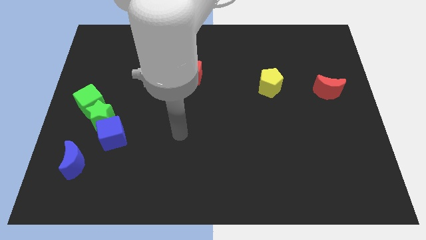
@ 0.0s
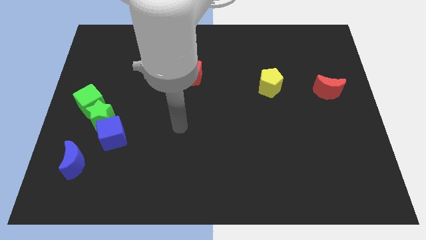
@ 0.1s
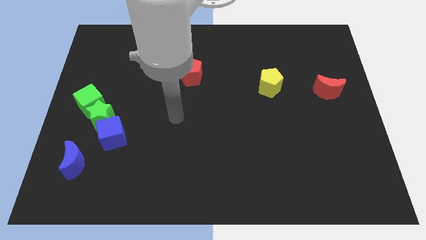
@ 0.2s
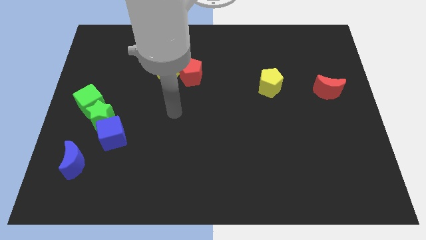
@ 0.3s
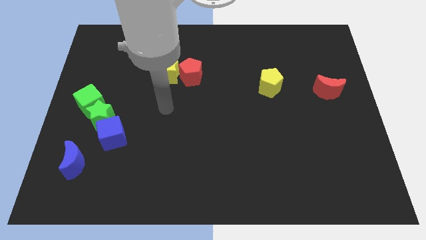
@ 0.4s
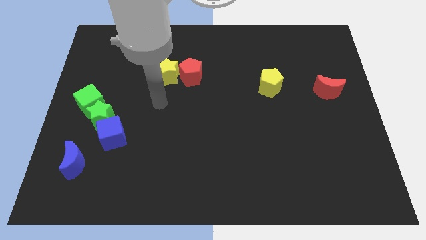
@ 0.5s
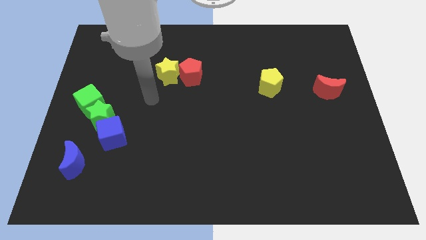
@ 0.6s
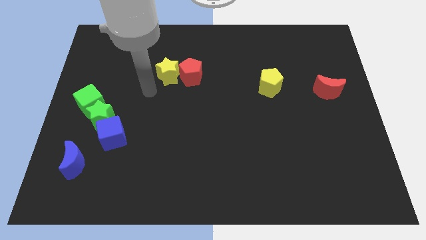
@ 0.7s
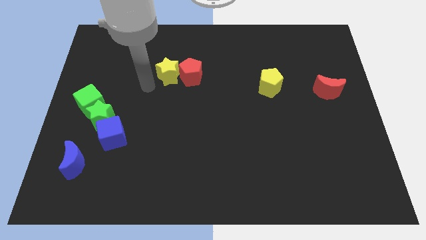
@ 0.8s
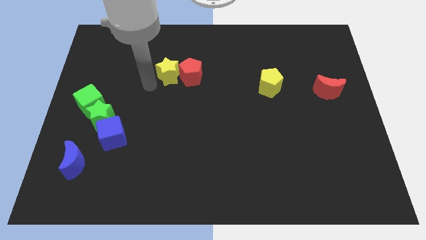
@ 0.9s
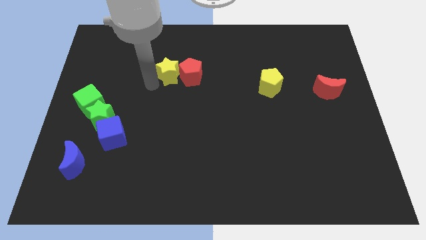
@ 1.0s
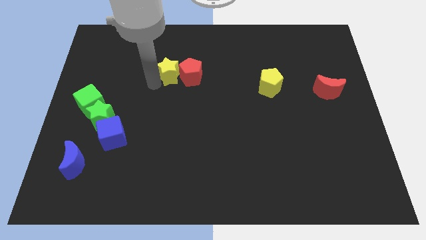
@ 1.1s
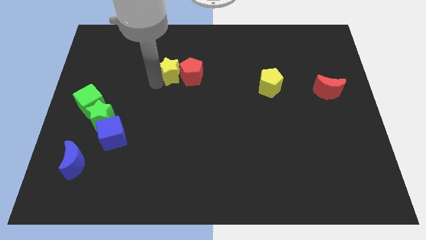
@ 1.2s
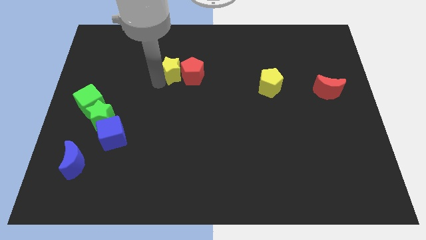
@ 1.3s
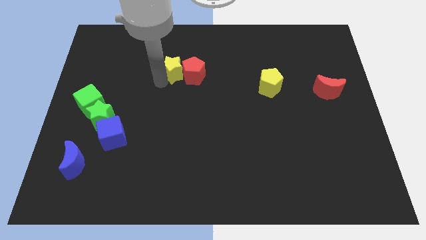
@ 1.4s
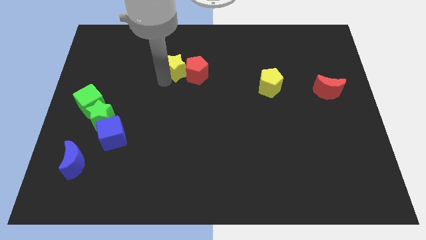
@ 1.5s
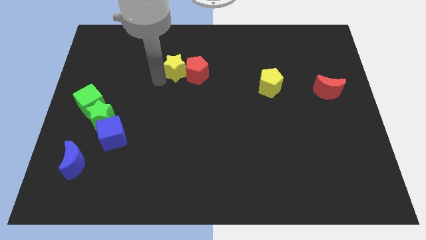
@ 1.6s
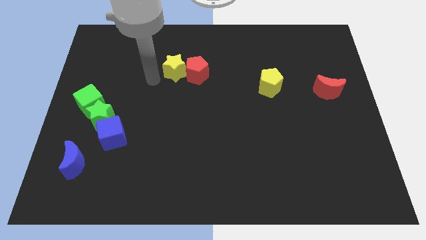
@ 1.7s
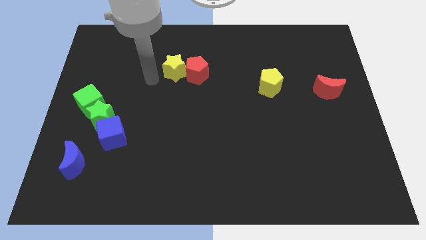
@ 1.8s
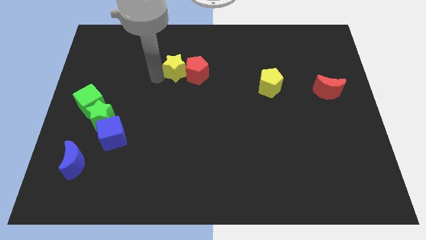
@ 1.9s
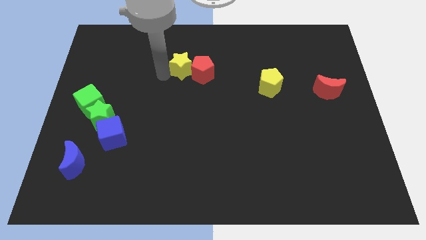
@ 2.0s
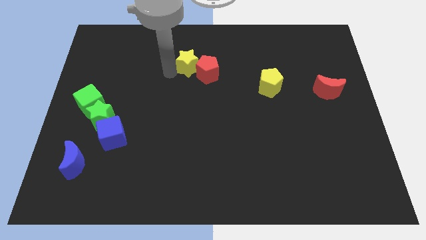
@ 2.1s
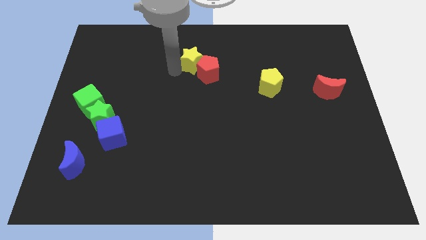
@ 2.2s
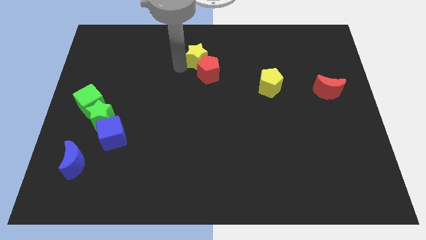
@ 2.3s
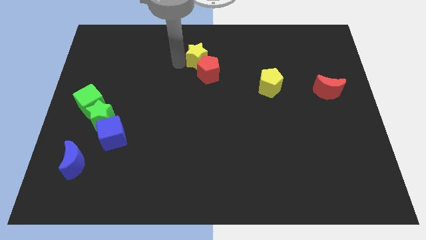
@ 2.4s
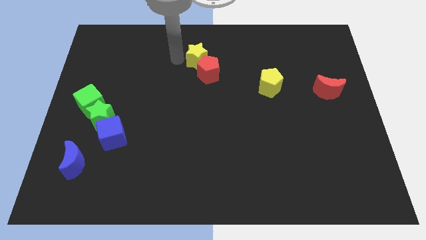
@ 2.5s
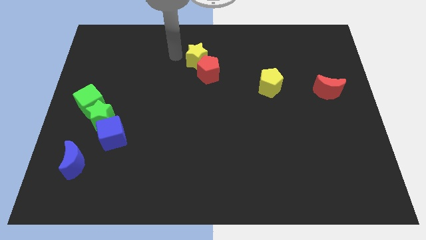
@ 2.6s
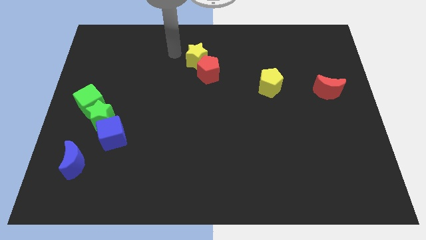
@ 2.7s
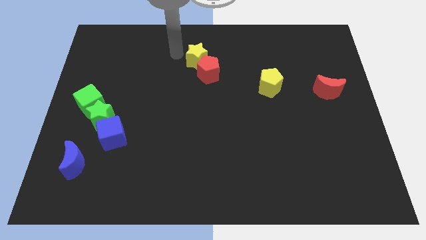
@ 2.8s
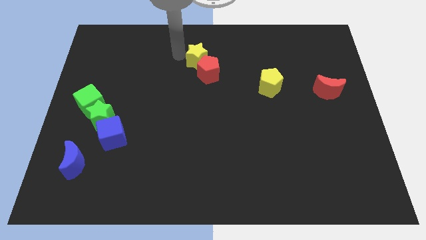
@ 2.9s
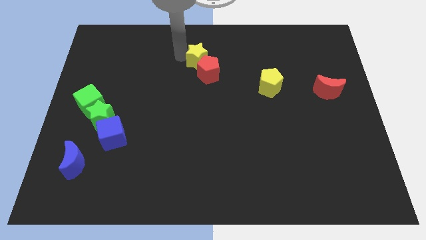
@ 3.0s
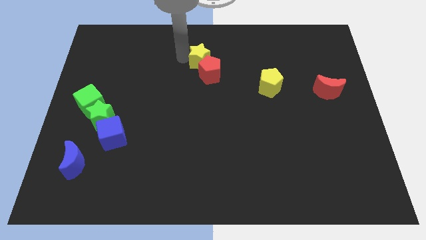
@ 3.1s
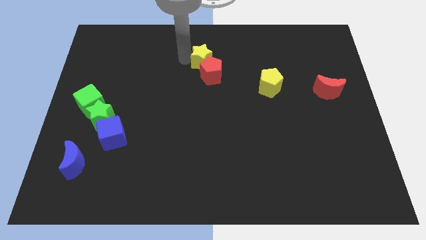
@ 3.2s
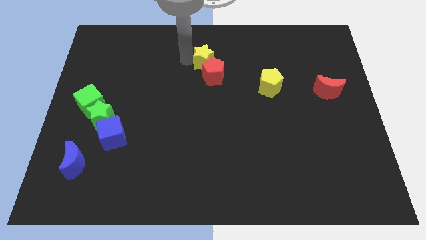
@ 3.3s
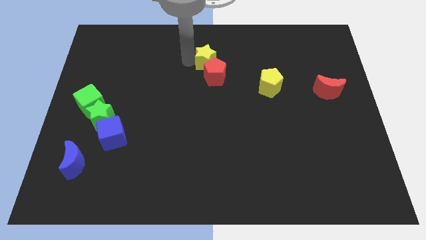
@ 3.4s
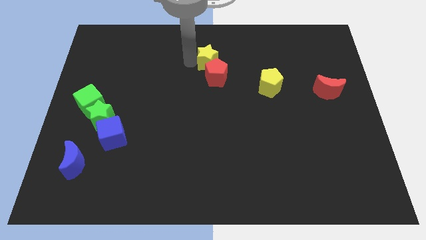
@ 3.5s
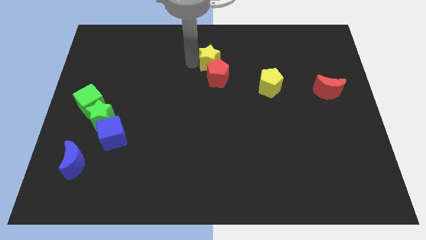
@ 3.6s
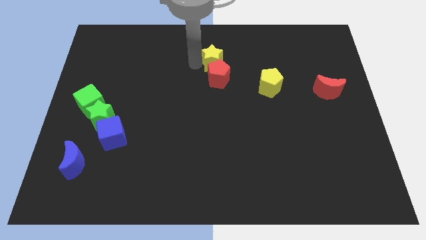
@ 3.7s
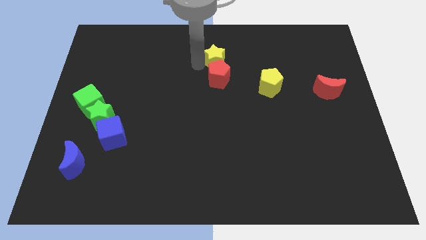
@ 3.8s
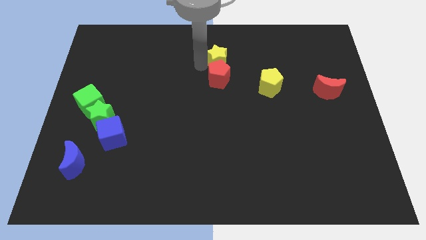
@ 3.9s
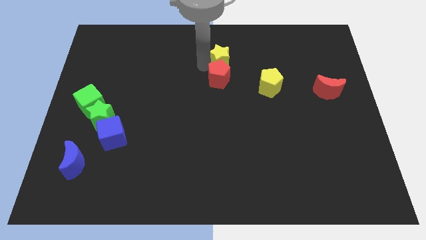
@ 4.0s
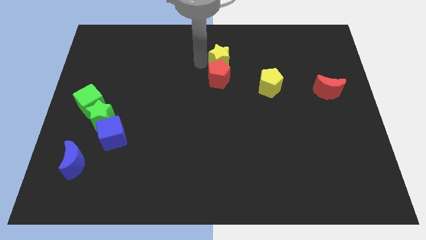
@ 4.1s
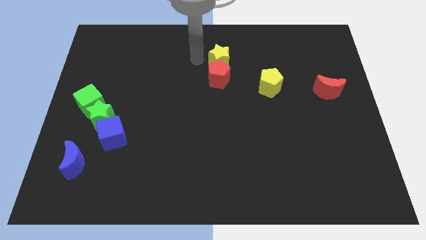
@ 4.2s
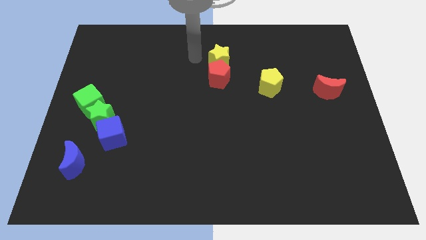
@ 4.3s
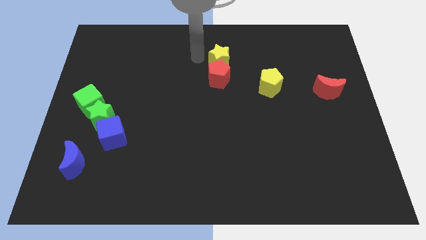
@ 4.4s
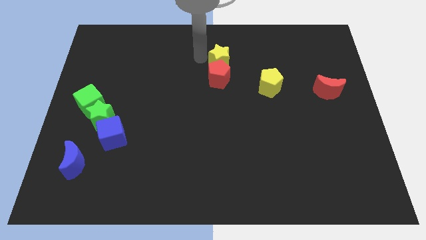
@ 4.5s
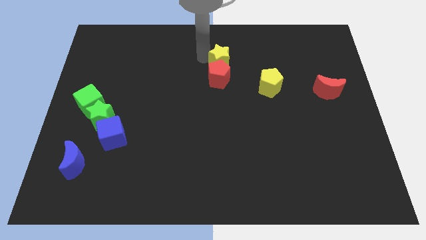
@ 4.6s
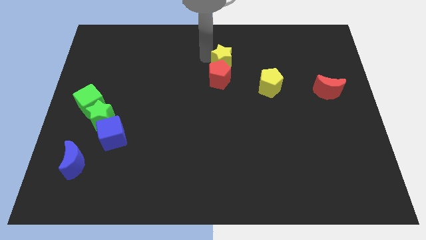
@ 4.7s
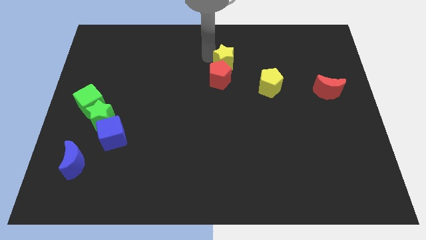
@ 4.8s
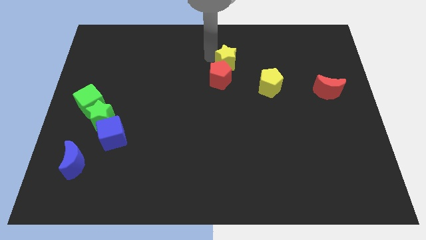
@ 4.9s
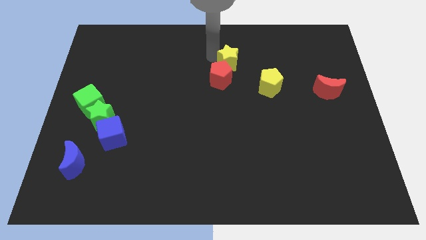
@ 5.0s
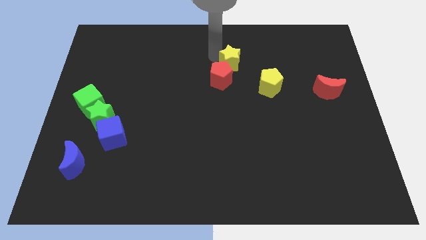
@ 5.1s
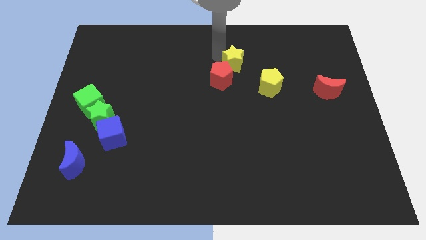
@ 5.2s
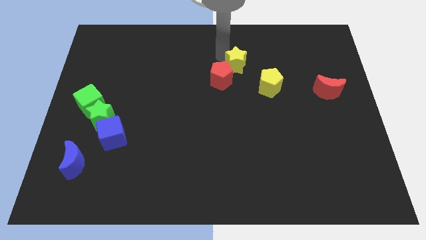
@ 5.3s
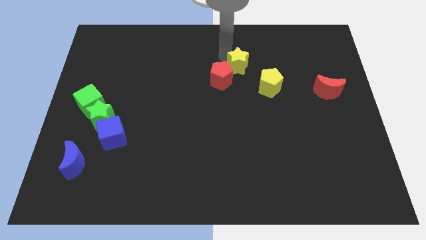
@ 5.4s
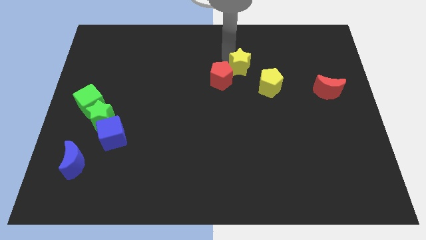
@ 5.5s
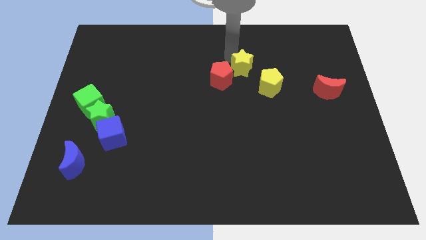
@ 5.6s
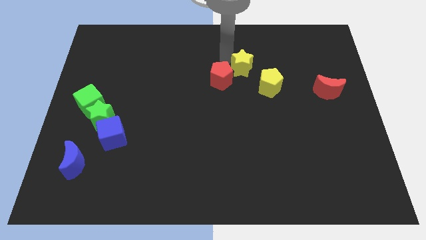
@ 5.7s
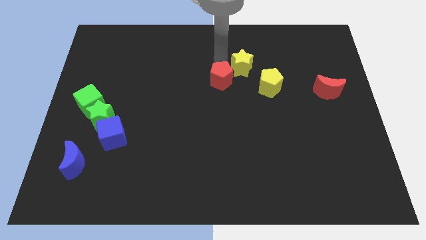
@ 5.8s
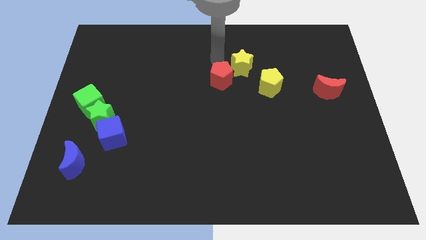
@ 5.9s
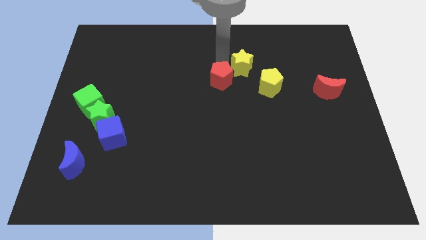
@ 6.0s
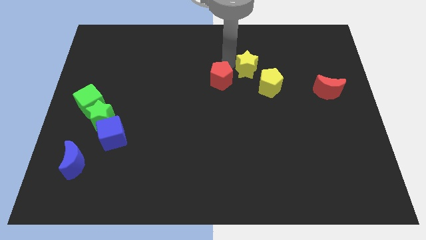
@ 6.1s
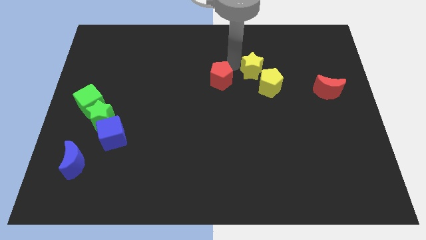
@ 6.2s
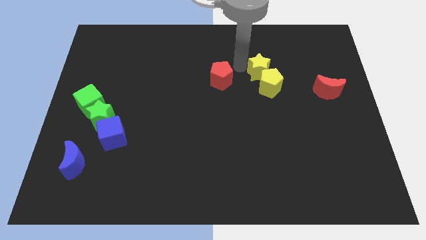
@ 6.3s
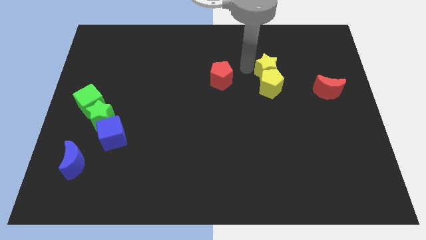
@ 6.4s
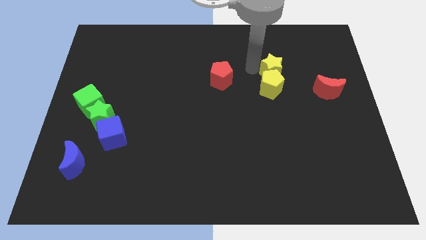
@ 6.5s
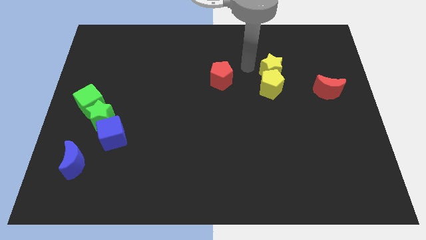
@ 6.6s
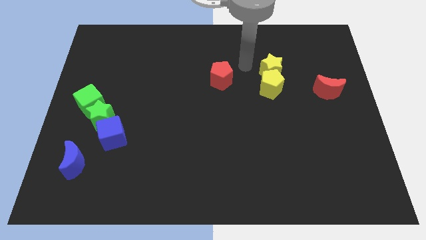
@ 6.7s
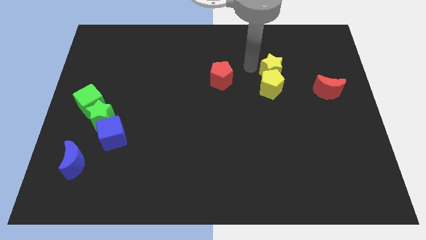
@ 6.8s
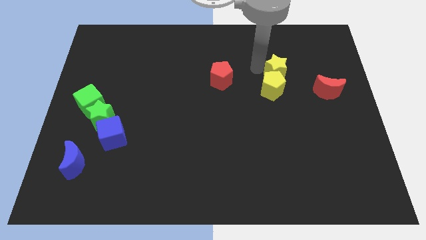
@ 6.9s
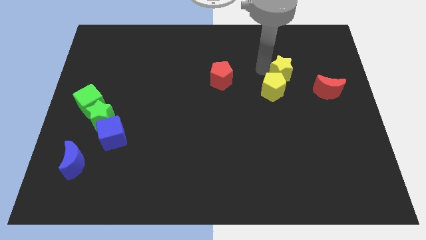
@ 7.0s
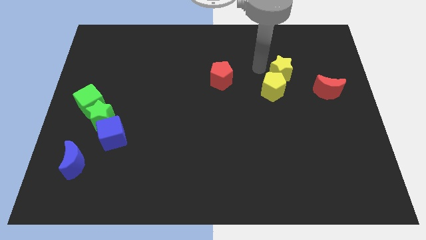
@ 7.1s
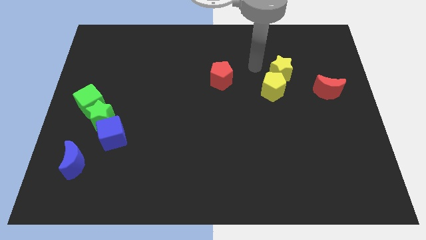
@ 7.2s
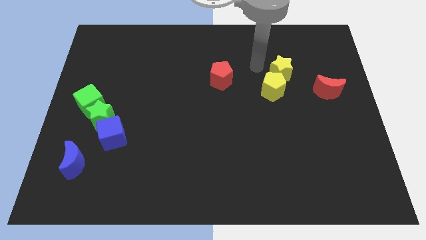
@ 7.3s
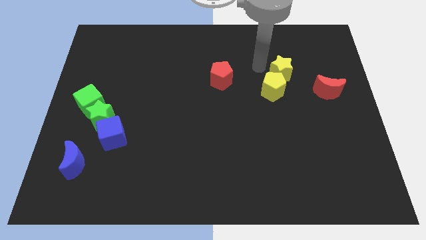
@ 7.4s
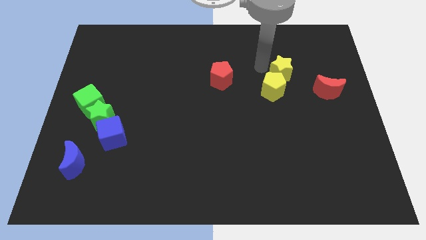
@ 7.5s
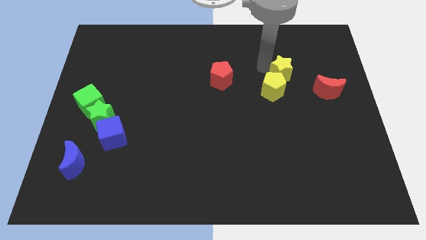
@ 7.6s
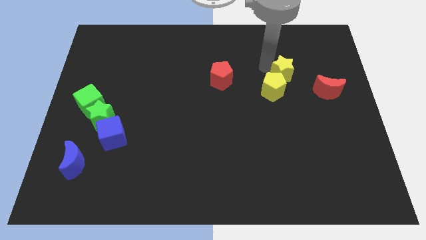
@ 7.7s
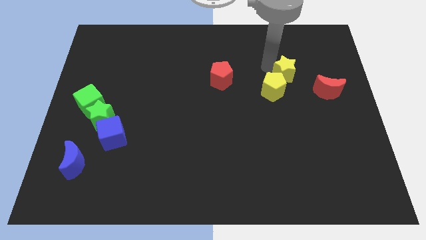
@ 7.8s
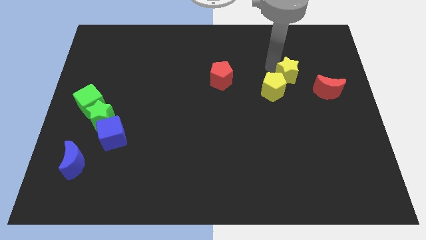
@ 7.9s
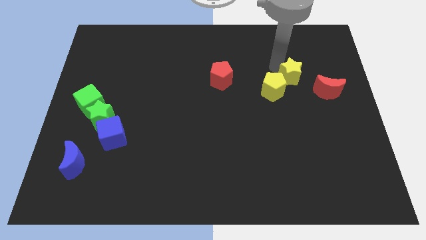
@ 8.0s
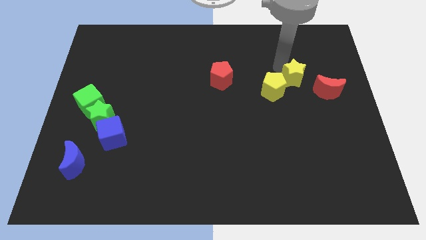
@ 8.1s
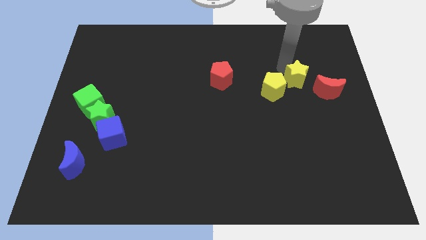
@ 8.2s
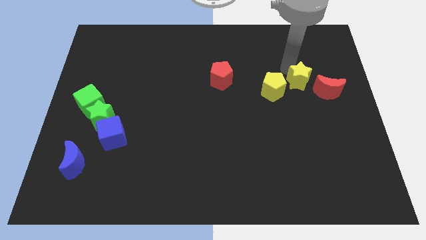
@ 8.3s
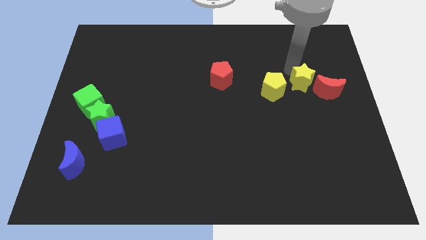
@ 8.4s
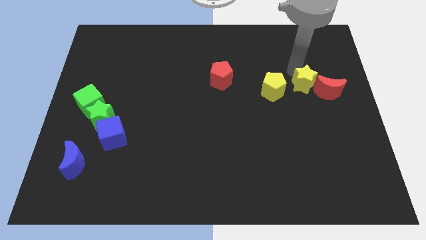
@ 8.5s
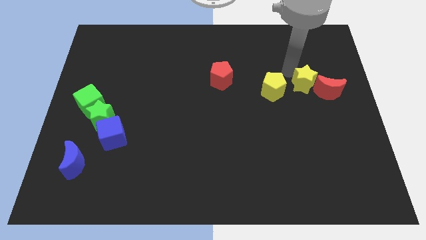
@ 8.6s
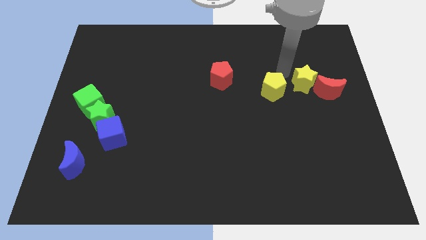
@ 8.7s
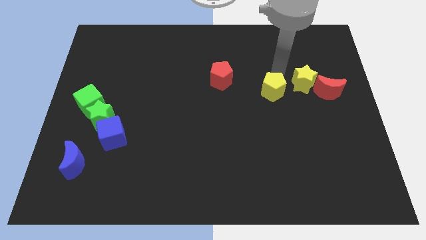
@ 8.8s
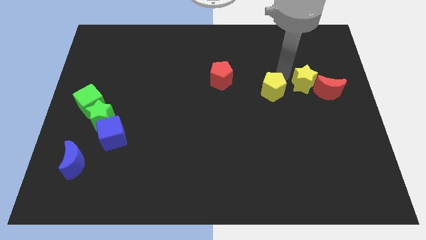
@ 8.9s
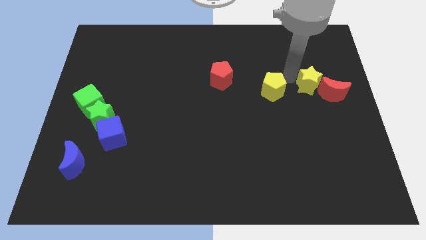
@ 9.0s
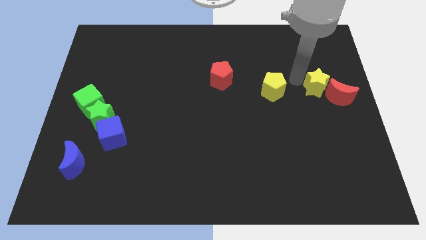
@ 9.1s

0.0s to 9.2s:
push the yellow star towards the red moon
